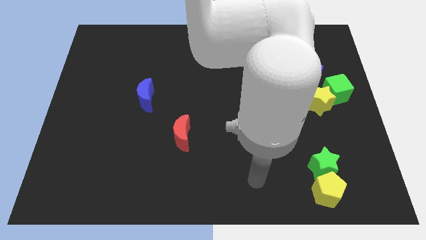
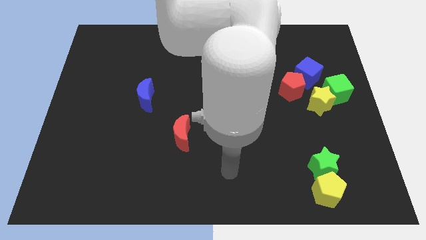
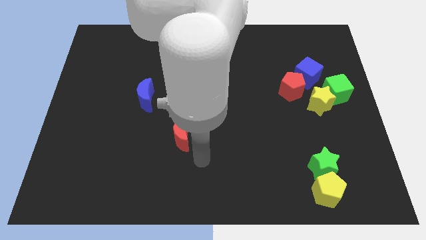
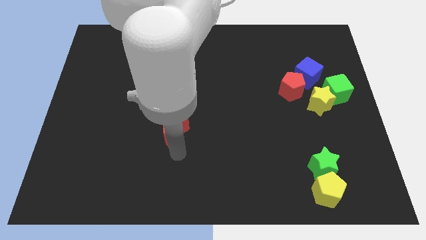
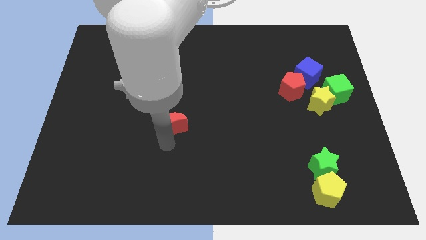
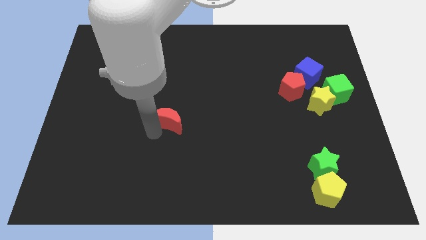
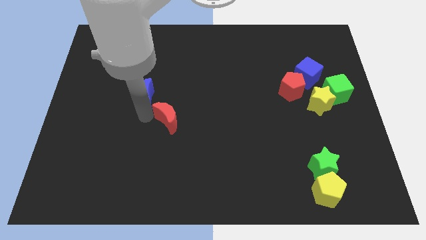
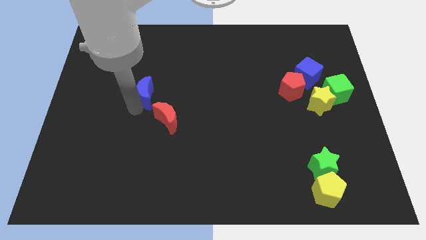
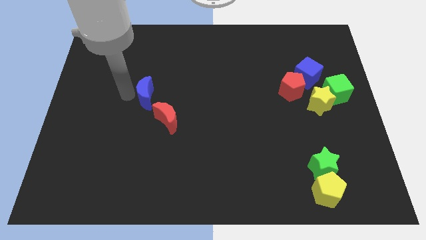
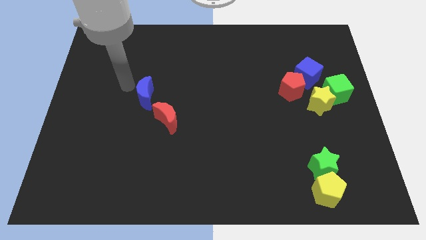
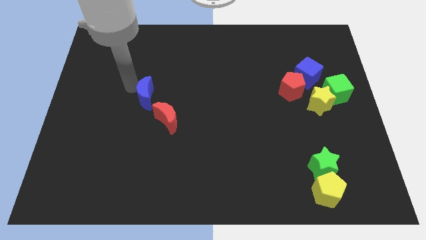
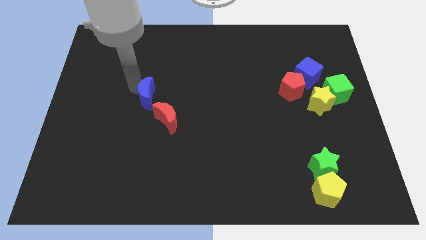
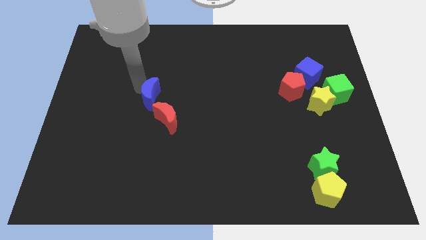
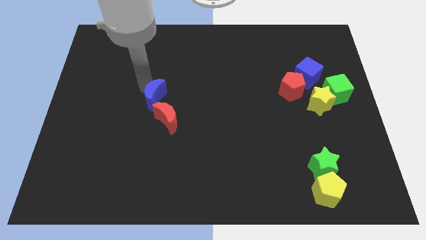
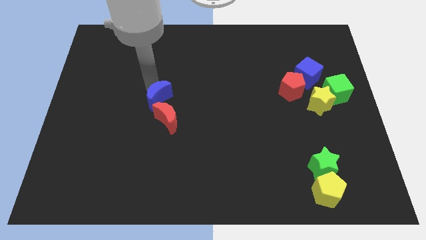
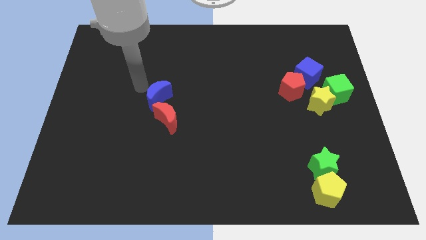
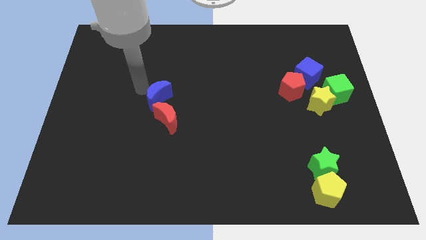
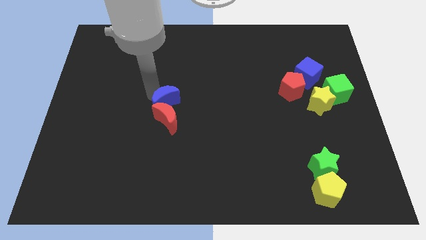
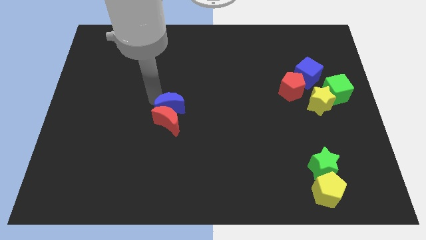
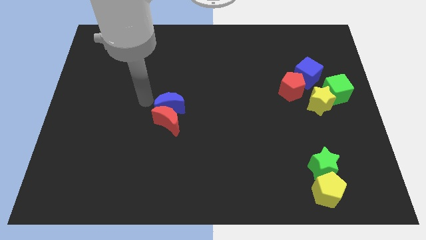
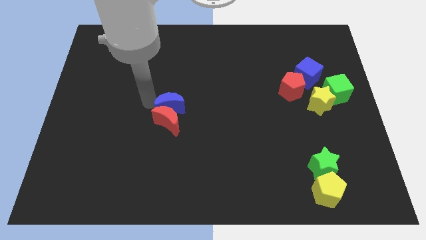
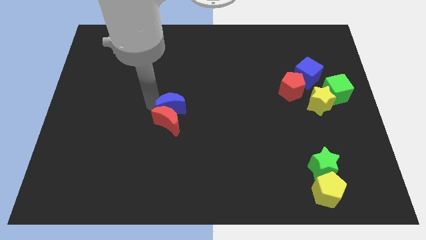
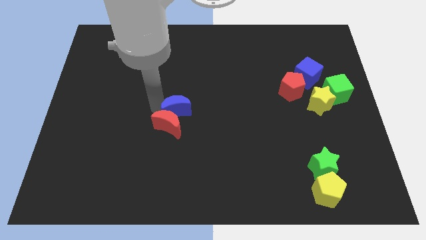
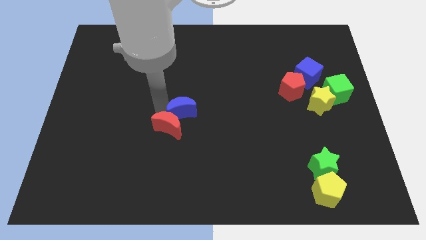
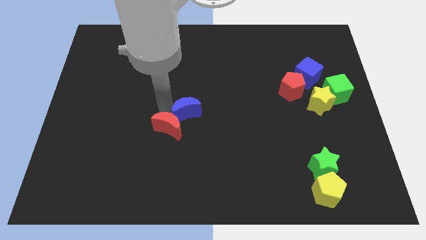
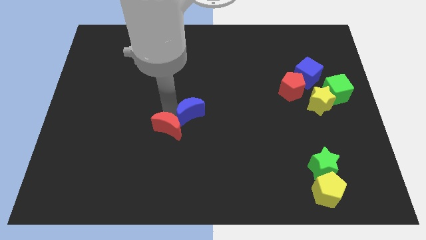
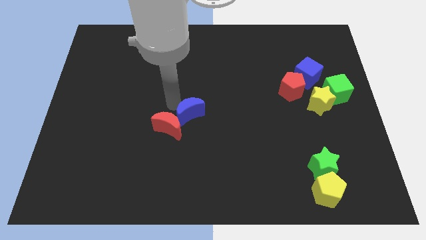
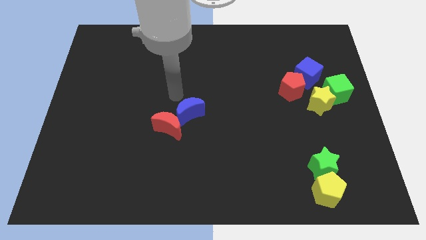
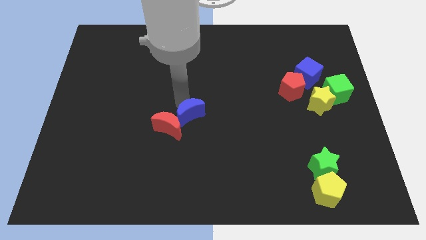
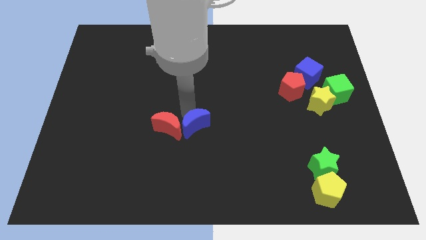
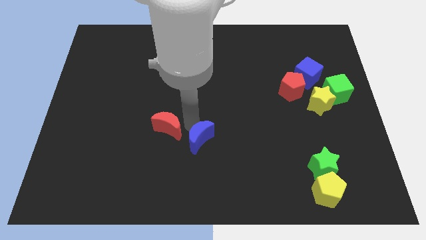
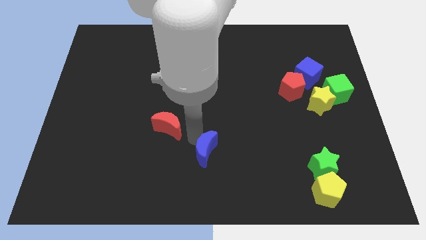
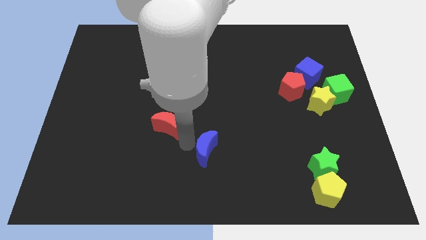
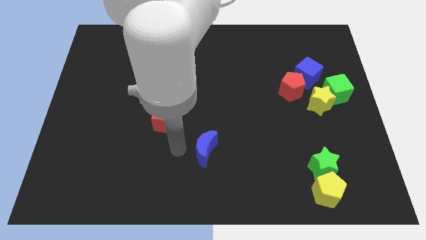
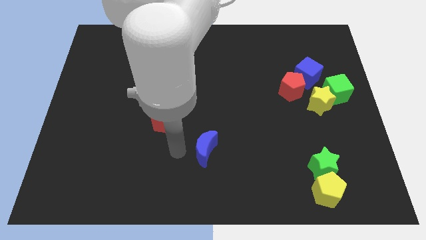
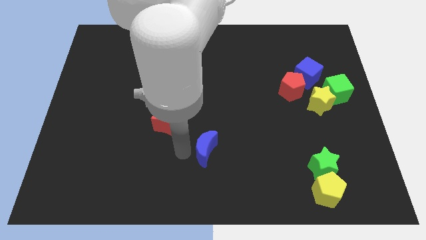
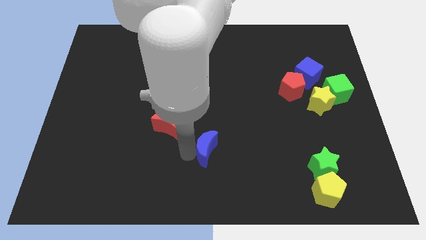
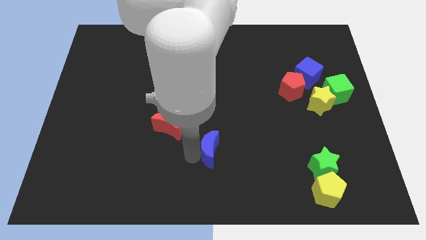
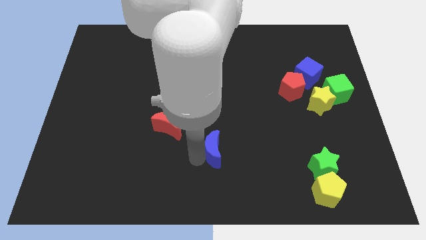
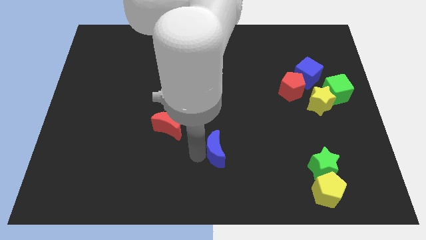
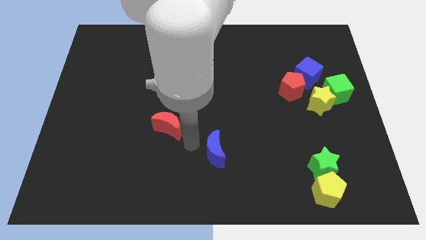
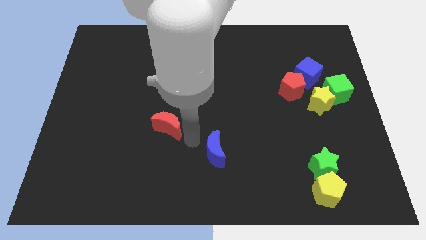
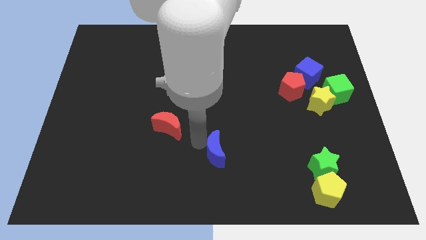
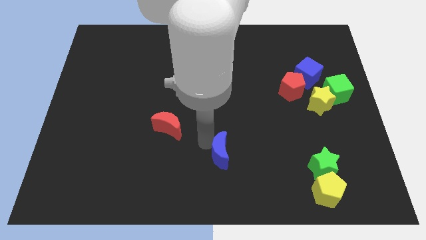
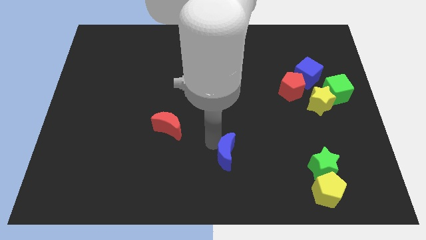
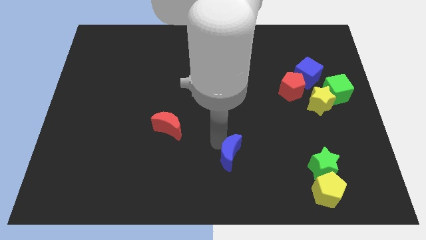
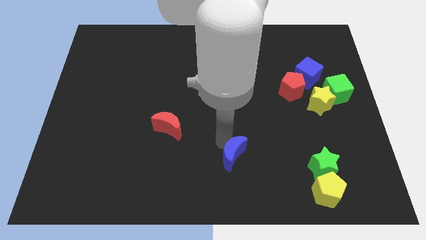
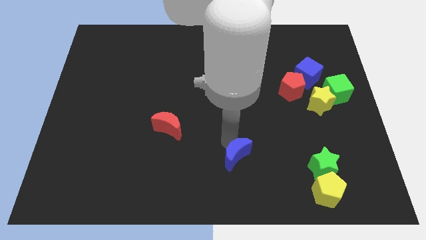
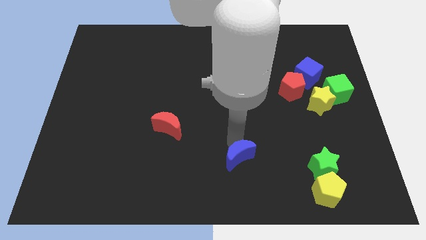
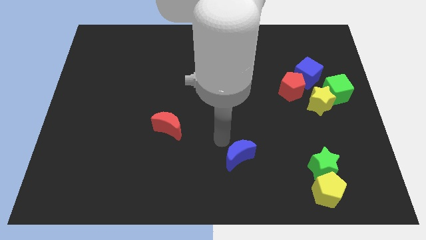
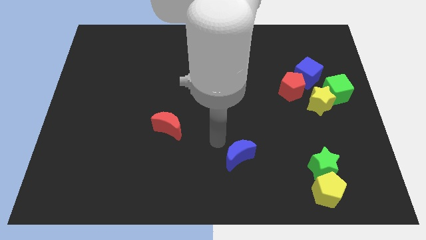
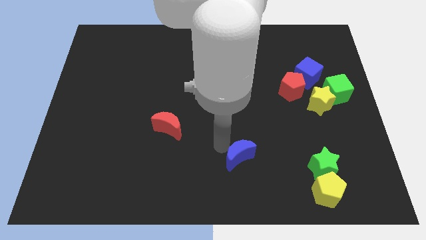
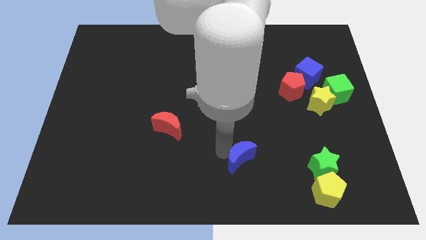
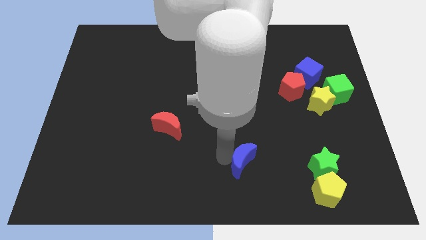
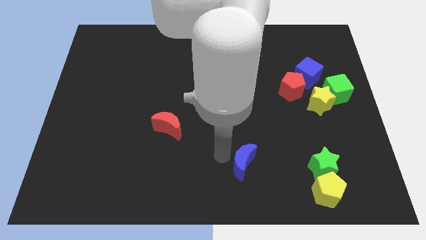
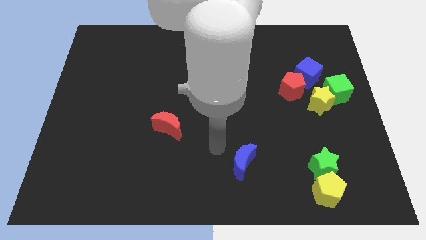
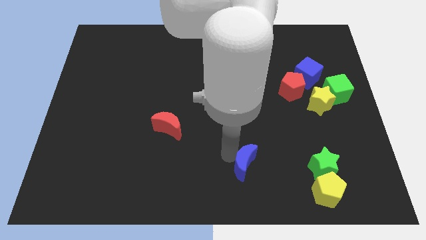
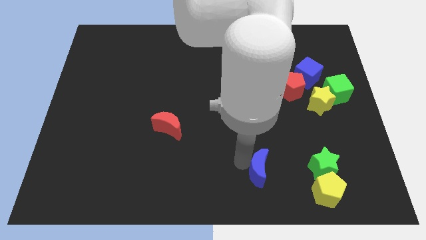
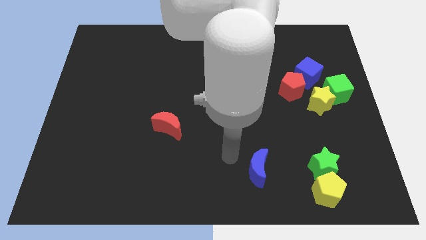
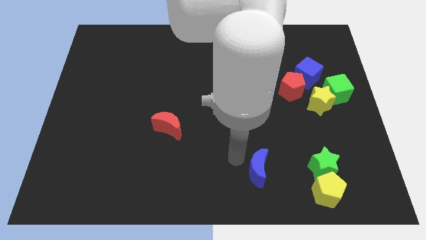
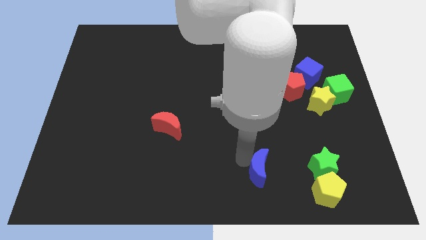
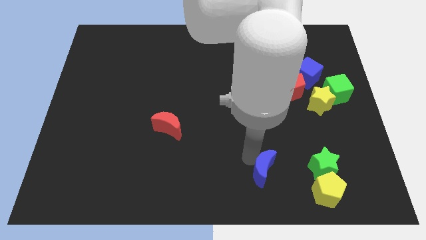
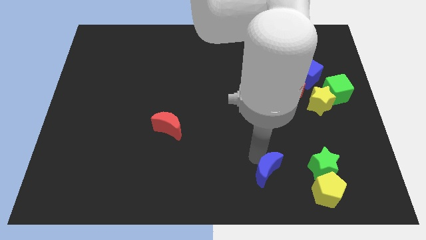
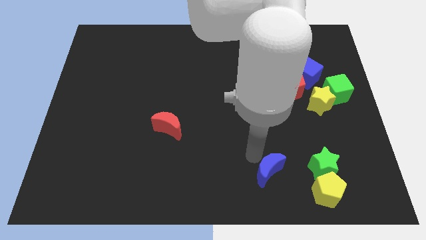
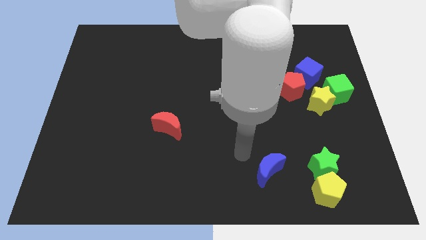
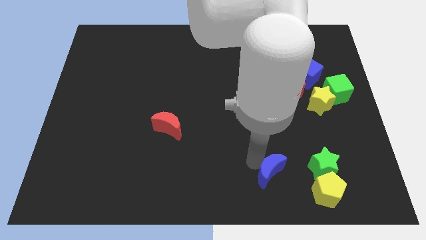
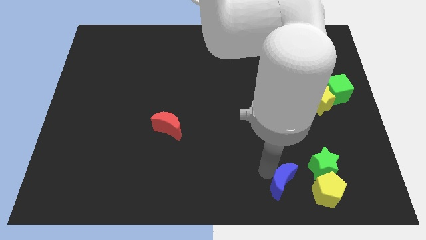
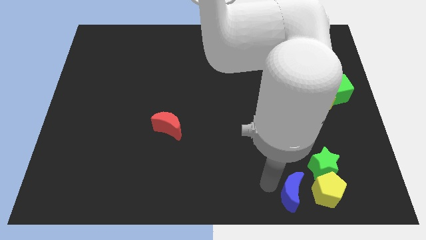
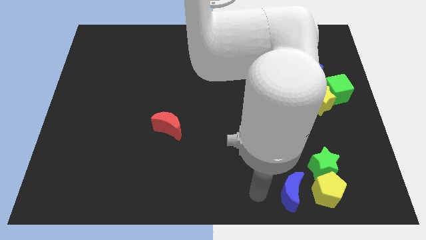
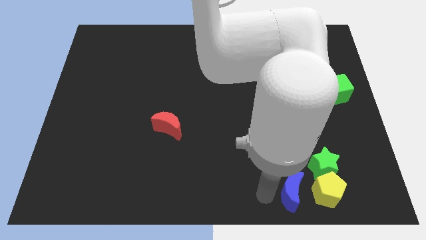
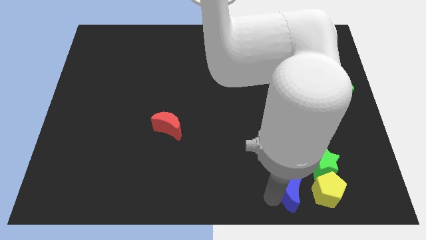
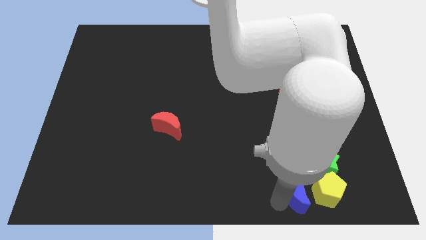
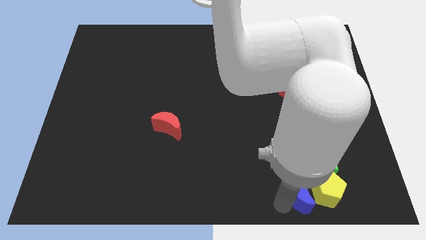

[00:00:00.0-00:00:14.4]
push the blue moon towards the yellow pentagon

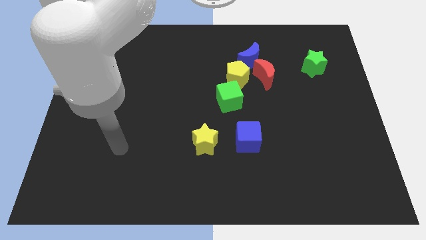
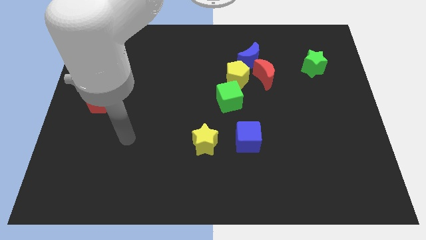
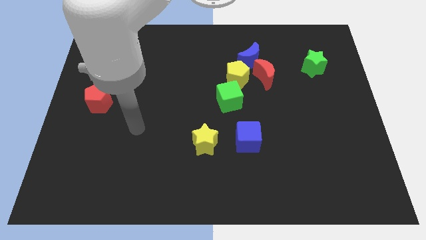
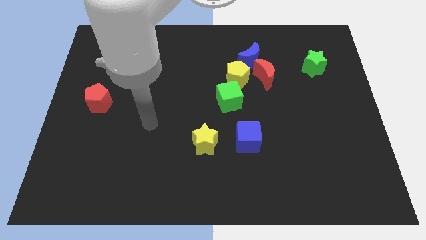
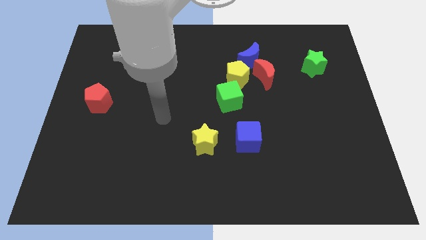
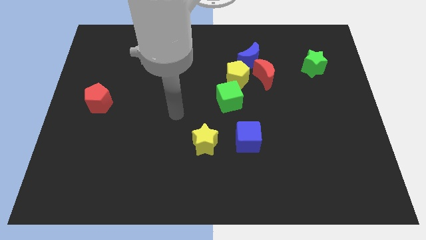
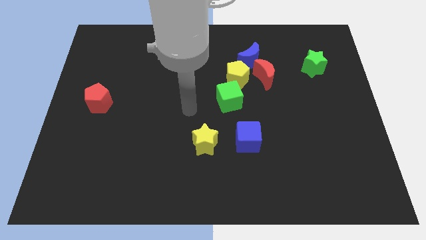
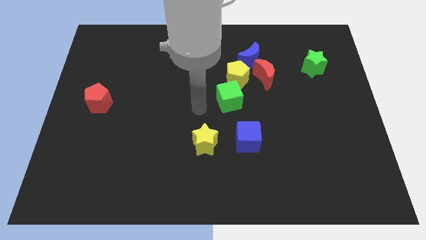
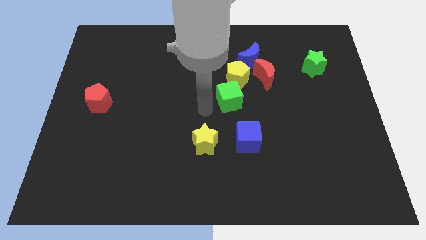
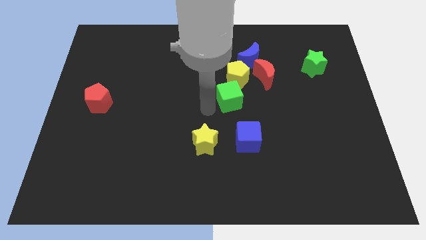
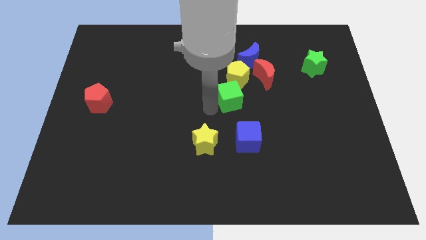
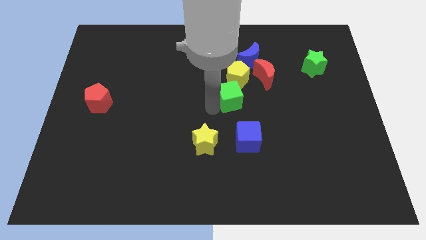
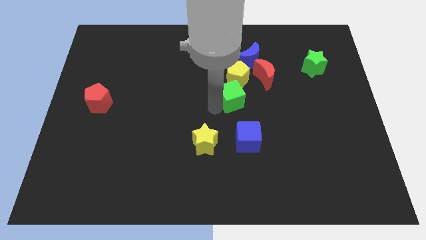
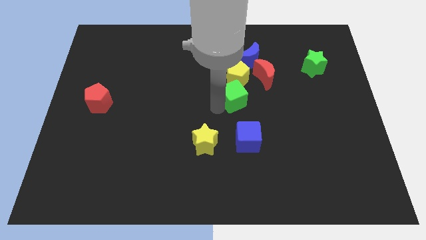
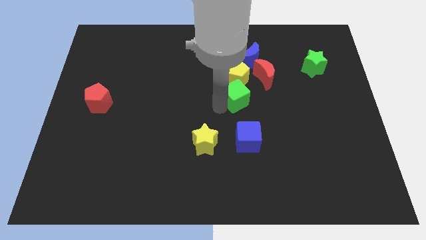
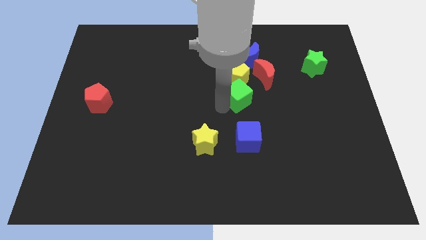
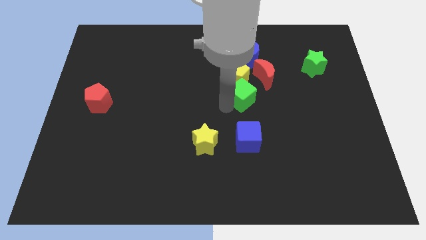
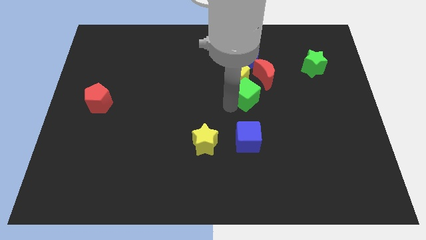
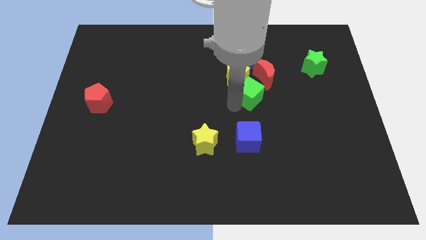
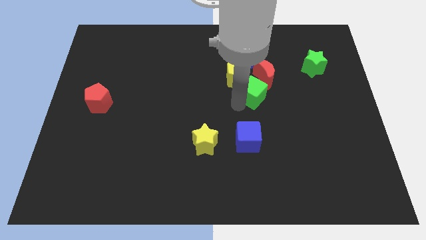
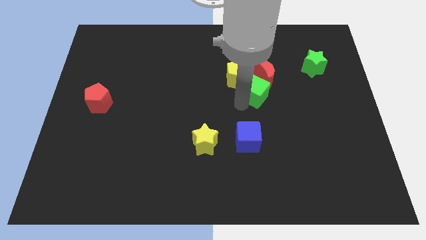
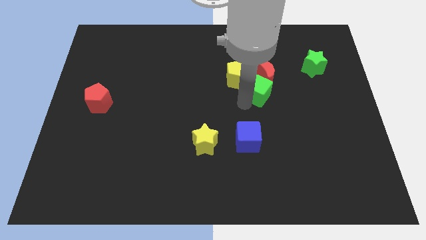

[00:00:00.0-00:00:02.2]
move the green cube close to the red moon
